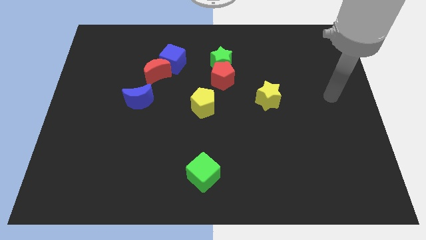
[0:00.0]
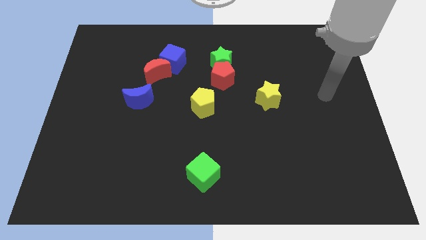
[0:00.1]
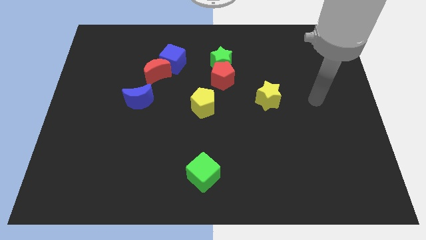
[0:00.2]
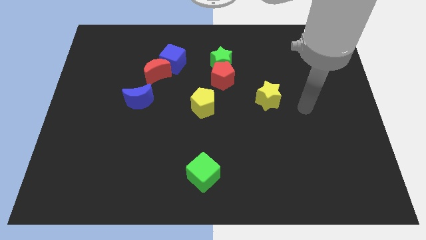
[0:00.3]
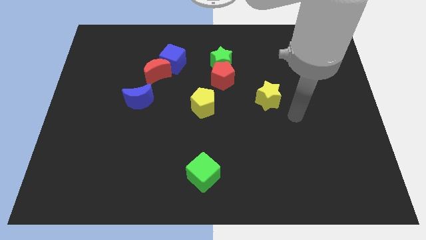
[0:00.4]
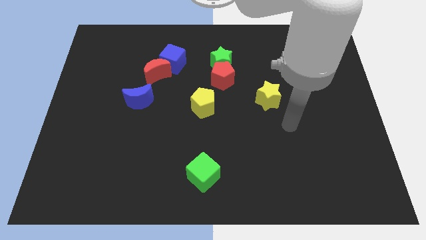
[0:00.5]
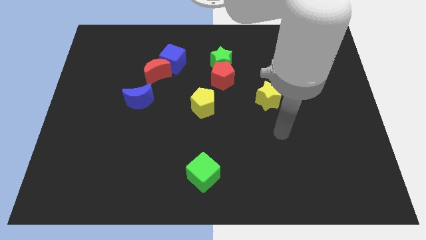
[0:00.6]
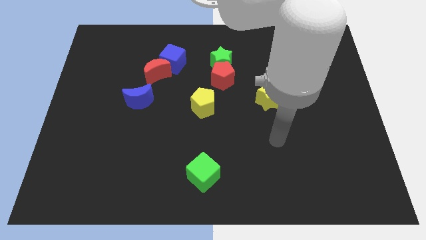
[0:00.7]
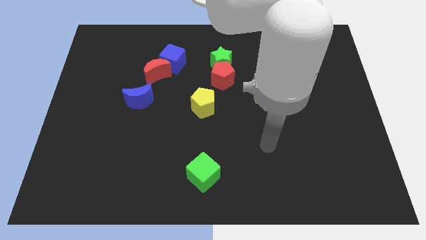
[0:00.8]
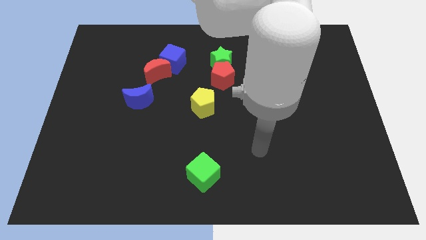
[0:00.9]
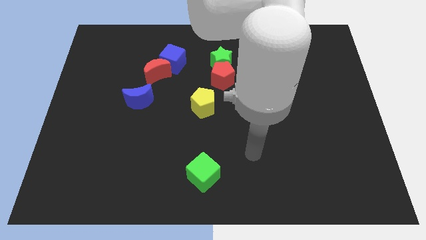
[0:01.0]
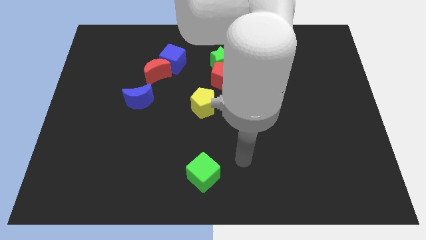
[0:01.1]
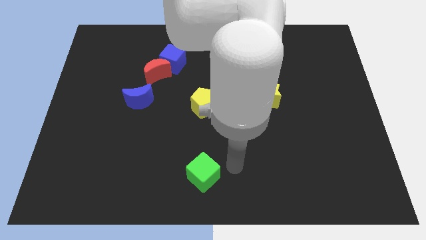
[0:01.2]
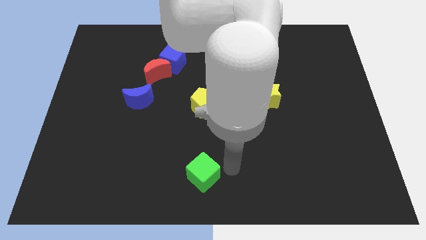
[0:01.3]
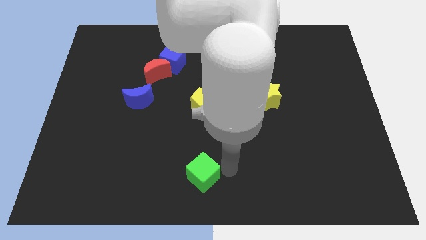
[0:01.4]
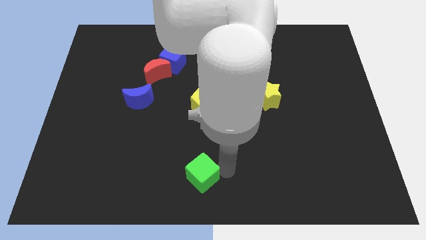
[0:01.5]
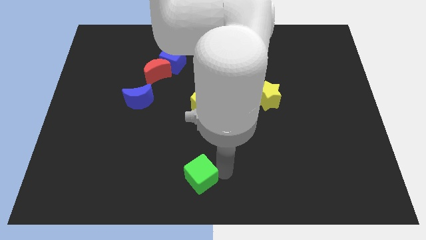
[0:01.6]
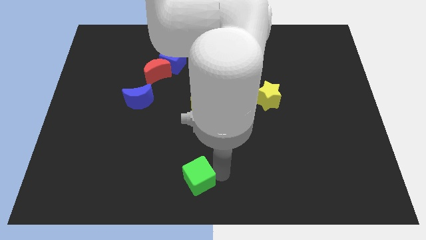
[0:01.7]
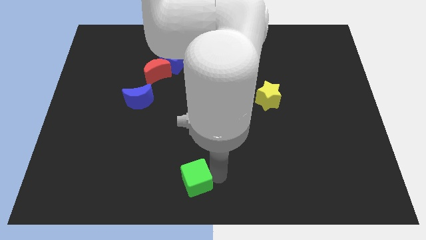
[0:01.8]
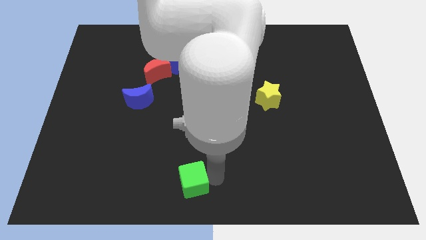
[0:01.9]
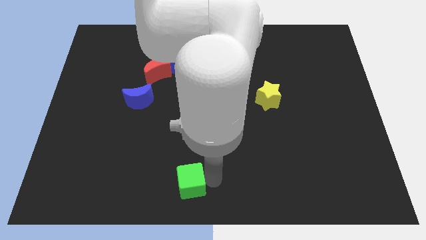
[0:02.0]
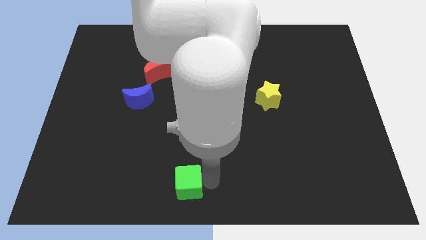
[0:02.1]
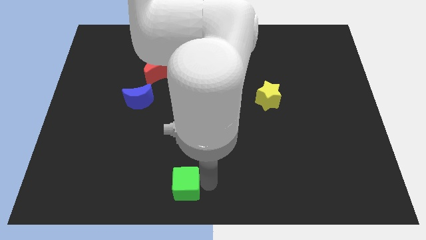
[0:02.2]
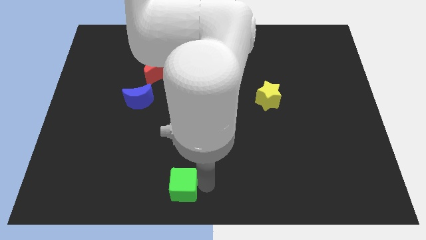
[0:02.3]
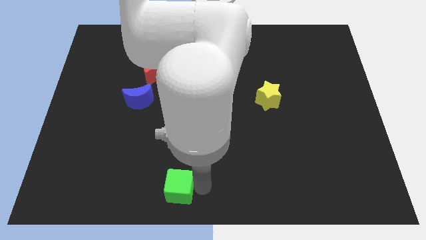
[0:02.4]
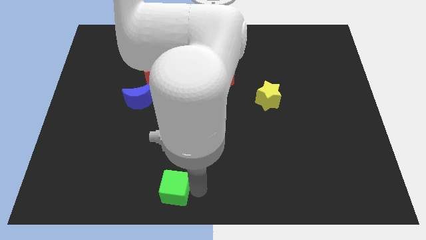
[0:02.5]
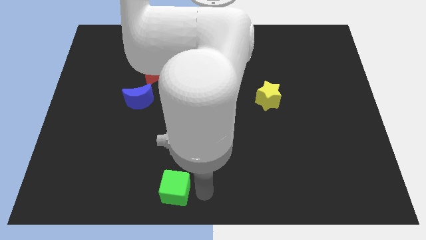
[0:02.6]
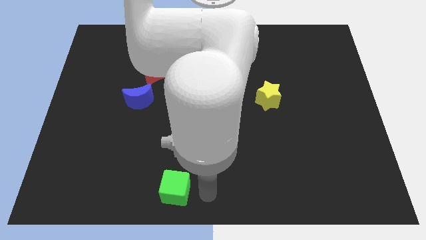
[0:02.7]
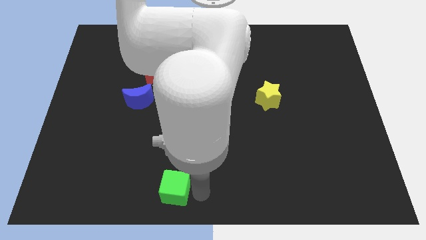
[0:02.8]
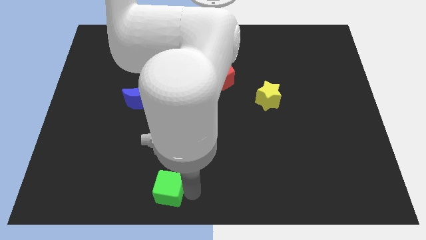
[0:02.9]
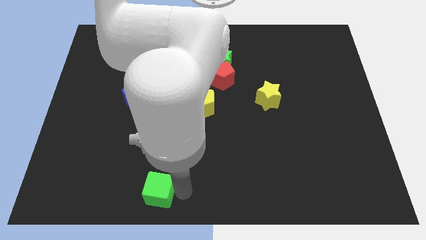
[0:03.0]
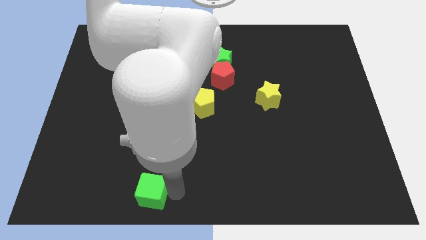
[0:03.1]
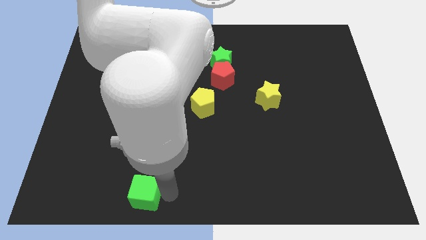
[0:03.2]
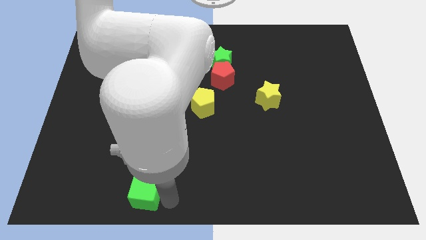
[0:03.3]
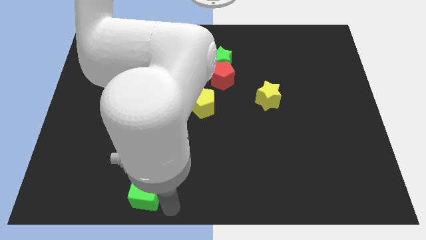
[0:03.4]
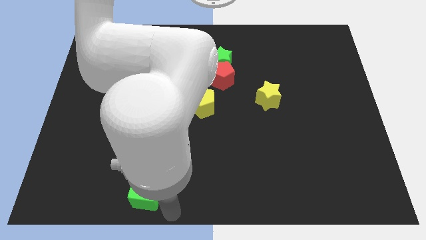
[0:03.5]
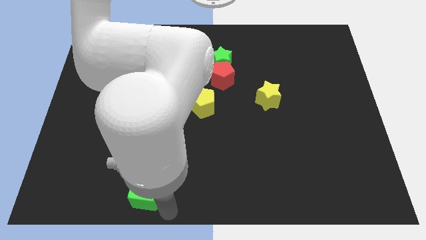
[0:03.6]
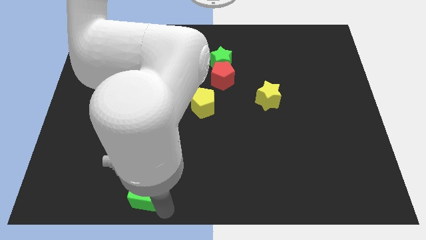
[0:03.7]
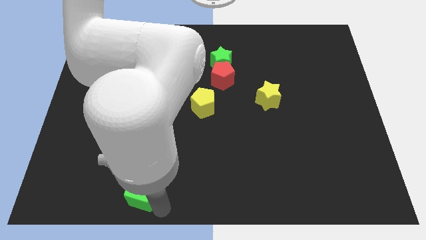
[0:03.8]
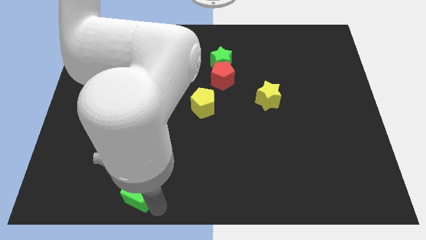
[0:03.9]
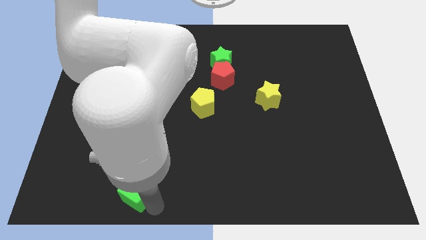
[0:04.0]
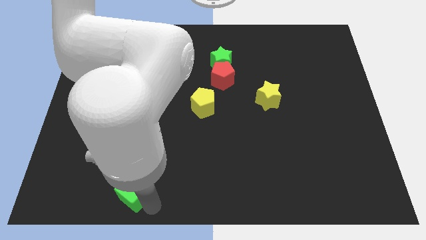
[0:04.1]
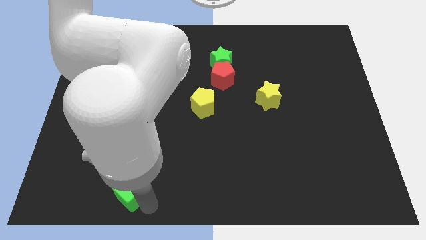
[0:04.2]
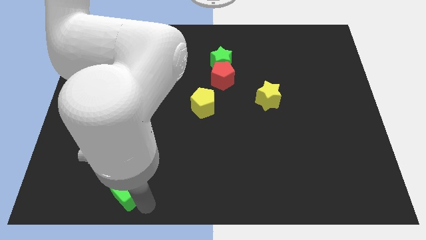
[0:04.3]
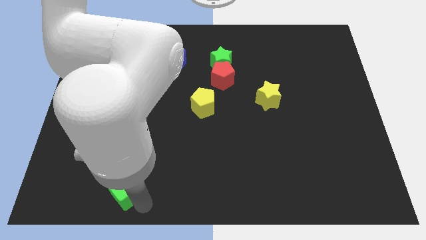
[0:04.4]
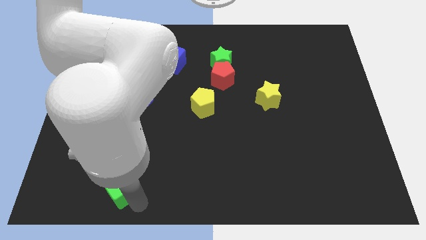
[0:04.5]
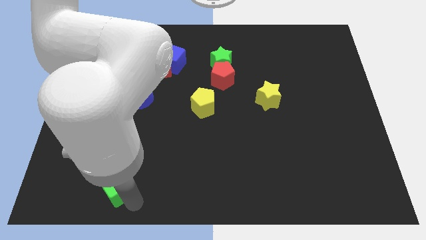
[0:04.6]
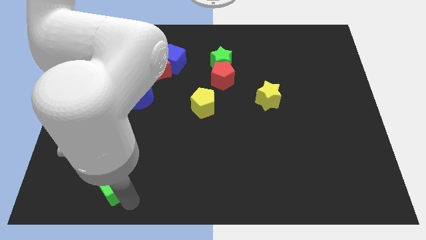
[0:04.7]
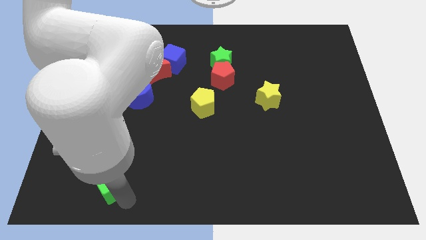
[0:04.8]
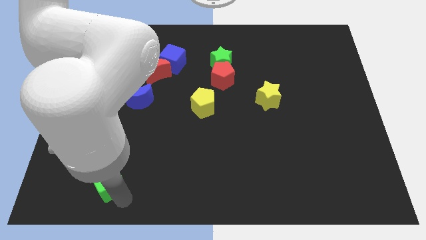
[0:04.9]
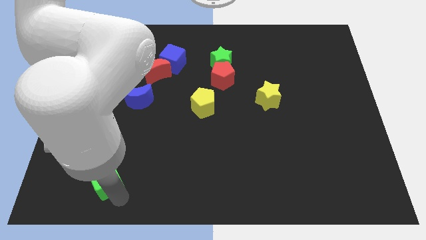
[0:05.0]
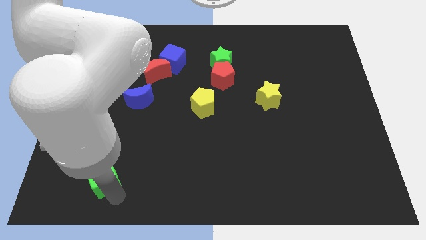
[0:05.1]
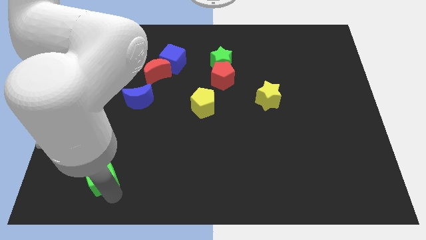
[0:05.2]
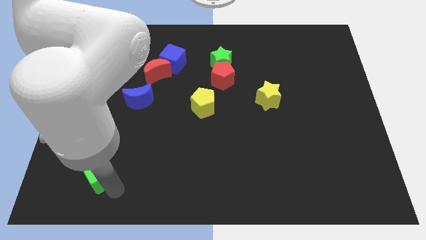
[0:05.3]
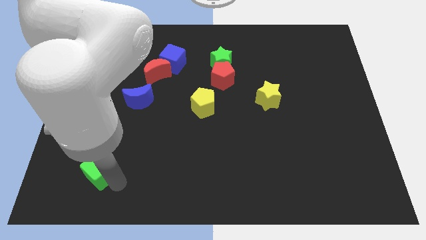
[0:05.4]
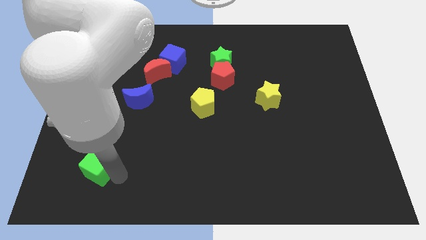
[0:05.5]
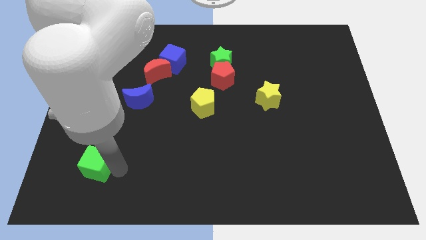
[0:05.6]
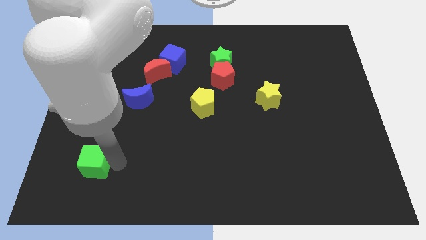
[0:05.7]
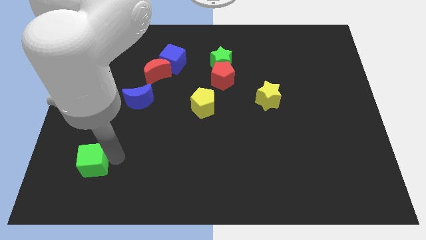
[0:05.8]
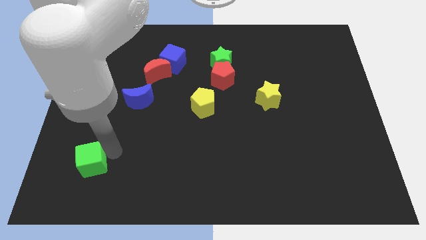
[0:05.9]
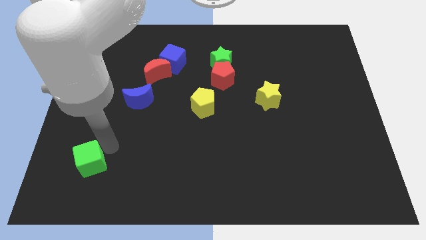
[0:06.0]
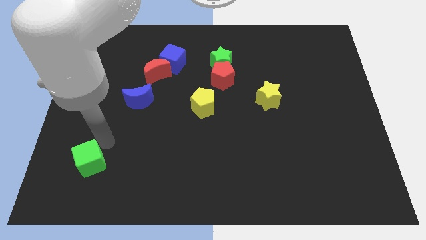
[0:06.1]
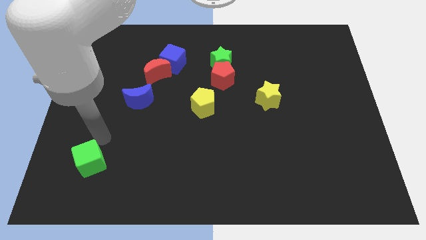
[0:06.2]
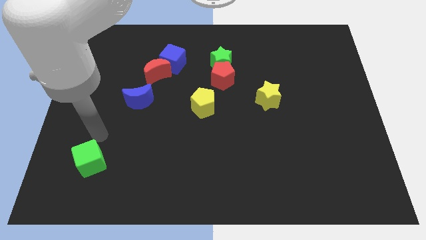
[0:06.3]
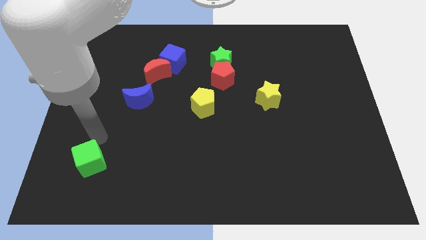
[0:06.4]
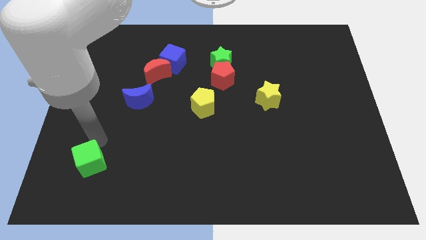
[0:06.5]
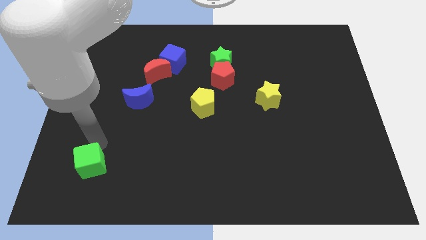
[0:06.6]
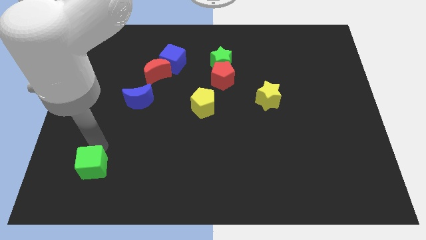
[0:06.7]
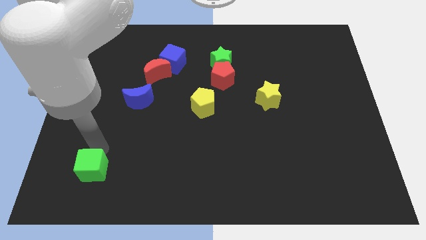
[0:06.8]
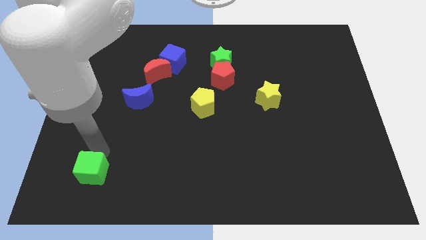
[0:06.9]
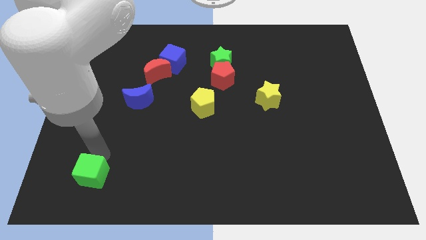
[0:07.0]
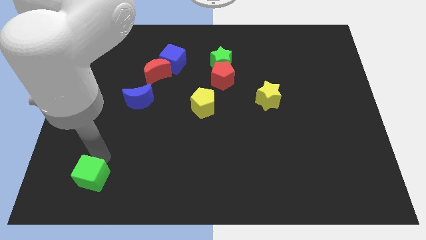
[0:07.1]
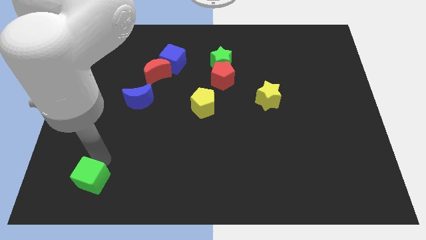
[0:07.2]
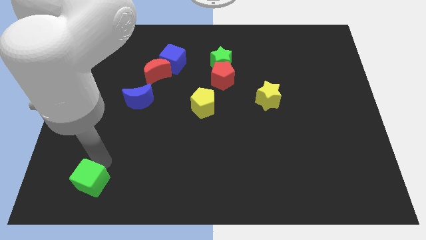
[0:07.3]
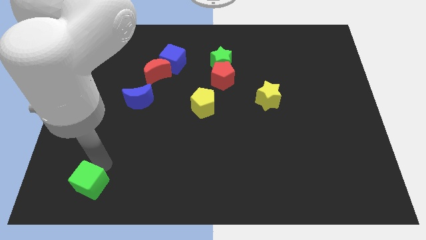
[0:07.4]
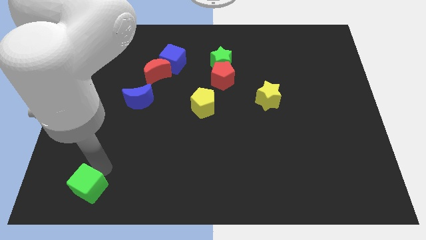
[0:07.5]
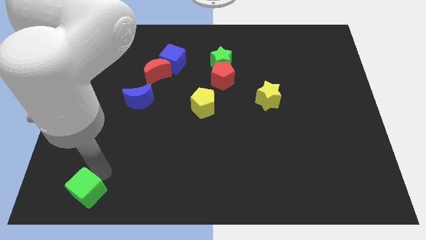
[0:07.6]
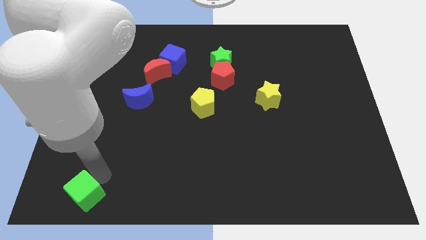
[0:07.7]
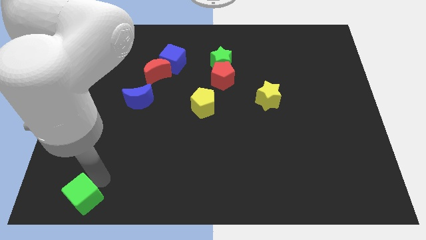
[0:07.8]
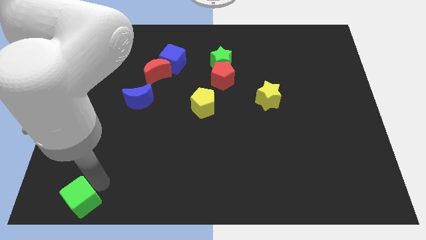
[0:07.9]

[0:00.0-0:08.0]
push the green cube to the lower left corner
